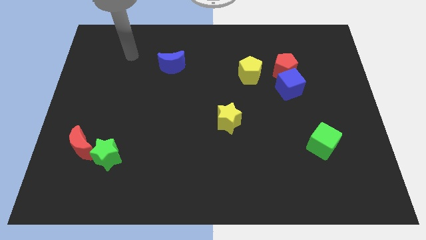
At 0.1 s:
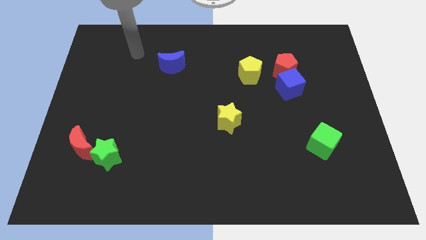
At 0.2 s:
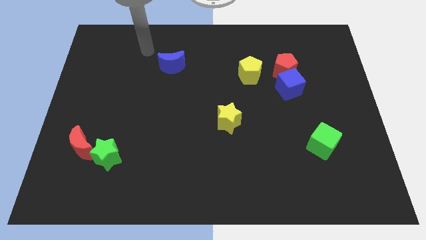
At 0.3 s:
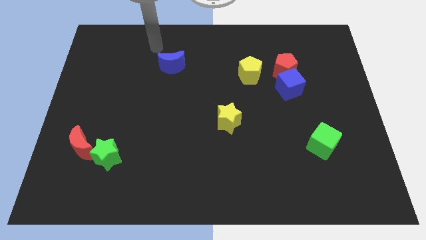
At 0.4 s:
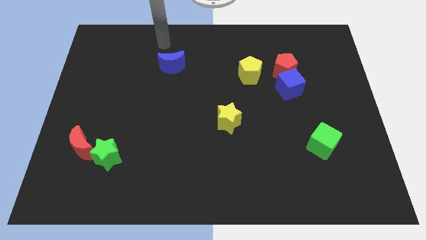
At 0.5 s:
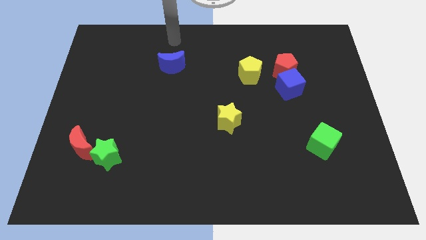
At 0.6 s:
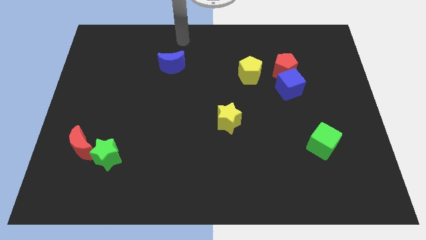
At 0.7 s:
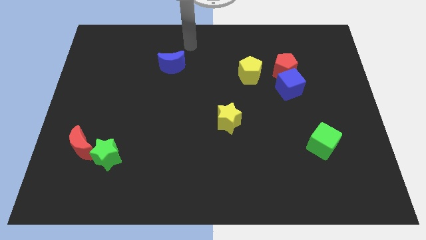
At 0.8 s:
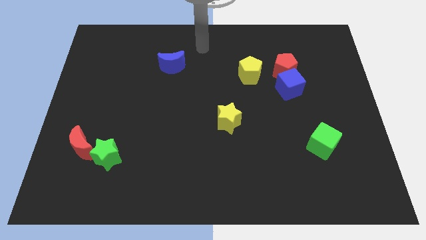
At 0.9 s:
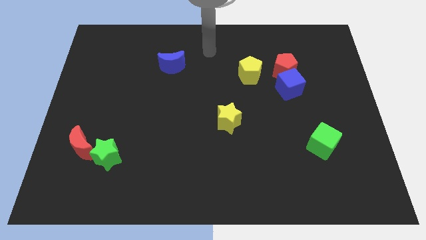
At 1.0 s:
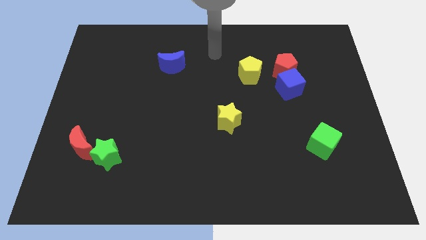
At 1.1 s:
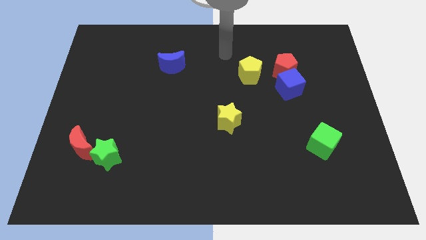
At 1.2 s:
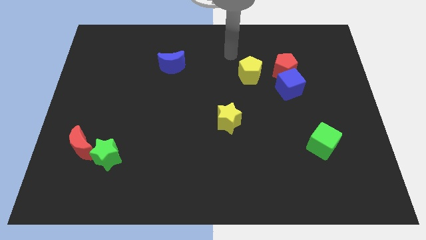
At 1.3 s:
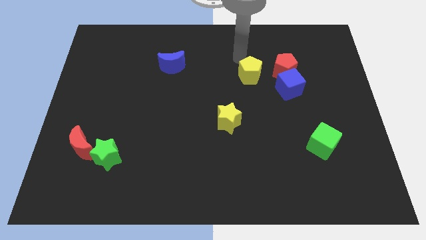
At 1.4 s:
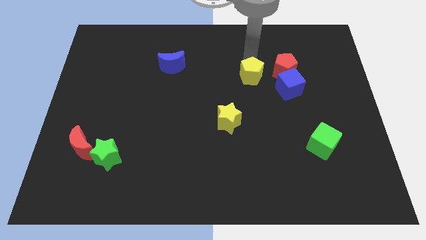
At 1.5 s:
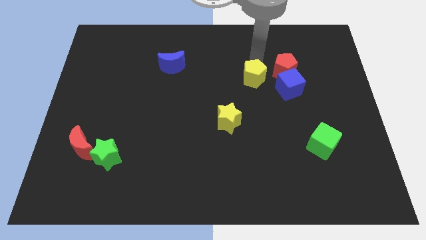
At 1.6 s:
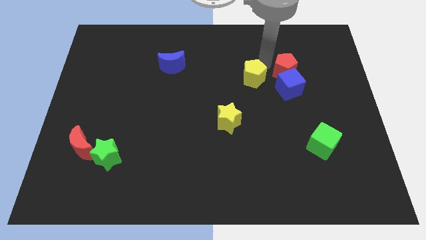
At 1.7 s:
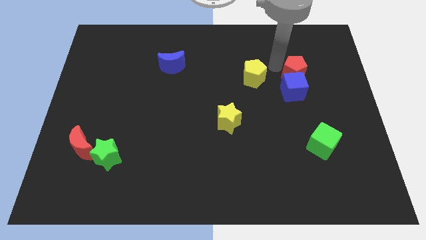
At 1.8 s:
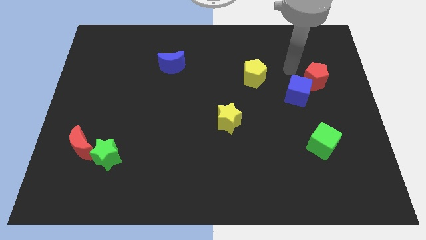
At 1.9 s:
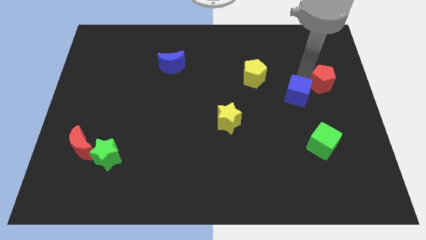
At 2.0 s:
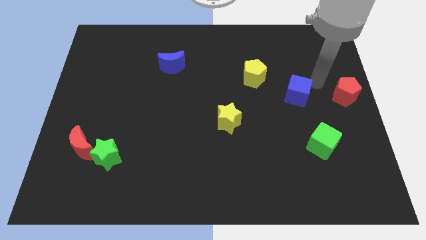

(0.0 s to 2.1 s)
separate the blue cube from the red pentagon

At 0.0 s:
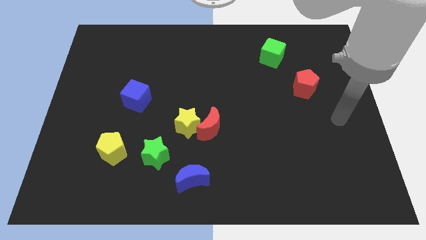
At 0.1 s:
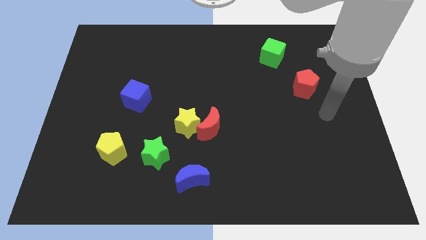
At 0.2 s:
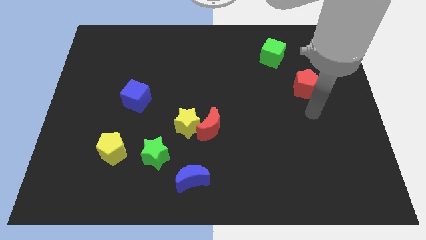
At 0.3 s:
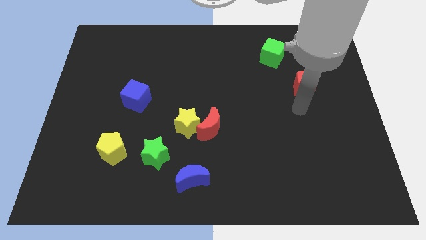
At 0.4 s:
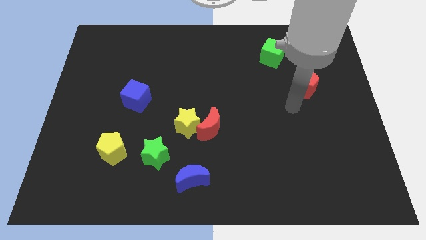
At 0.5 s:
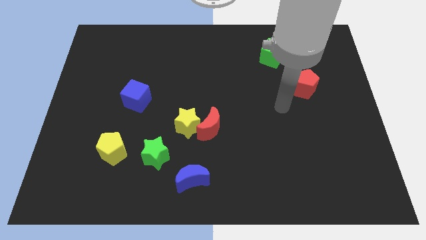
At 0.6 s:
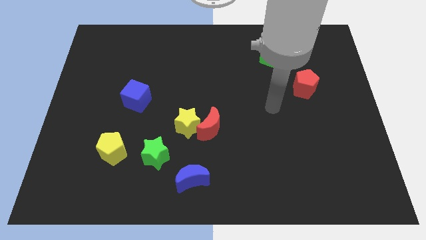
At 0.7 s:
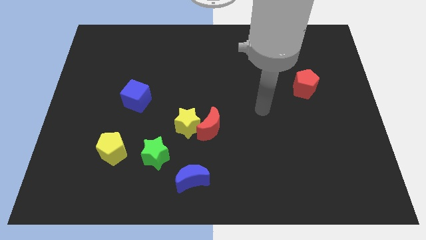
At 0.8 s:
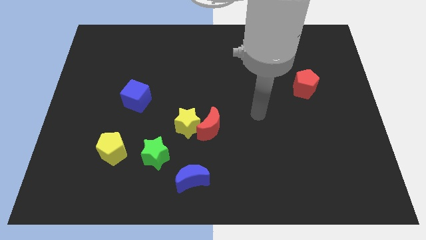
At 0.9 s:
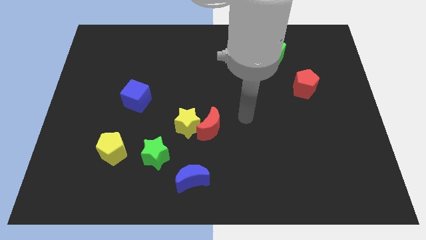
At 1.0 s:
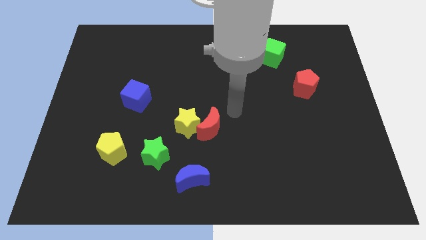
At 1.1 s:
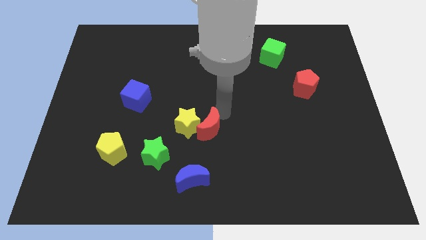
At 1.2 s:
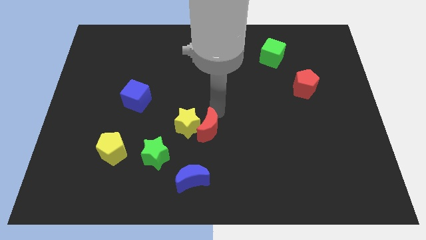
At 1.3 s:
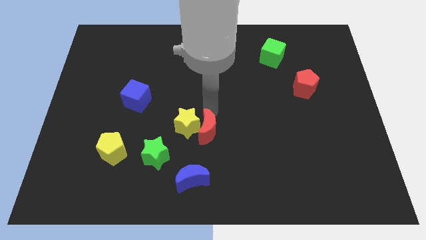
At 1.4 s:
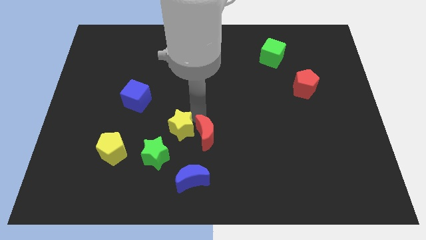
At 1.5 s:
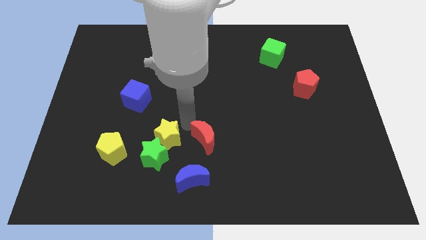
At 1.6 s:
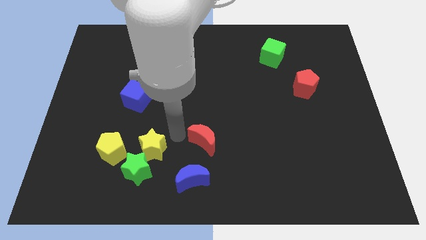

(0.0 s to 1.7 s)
separate the red moon from the yellow star

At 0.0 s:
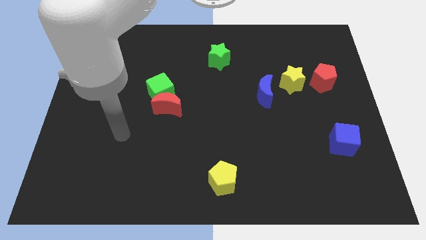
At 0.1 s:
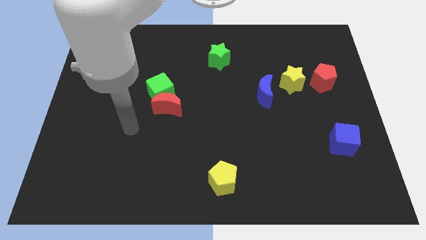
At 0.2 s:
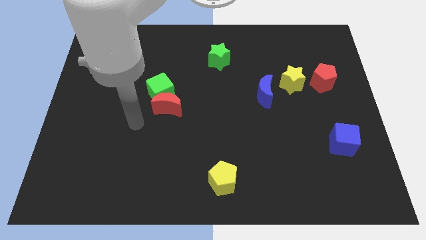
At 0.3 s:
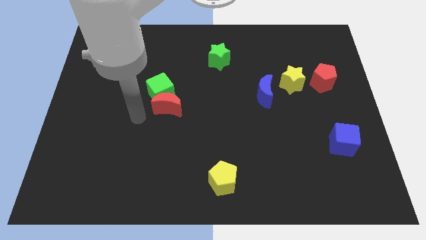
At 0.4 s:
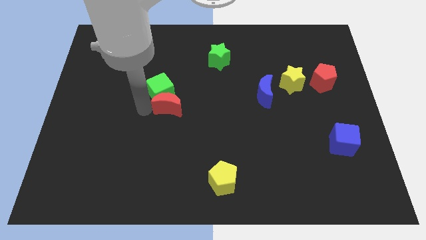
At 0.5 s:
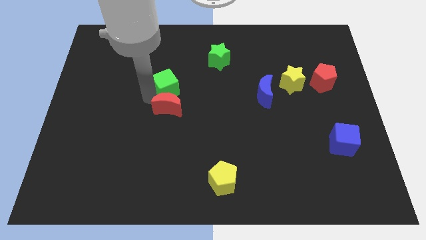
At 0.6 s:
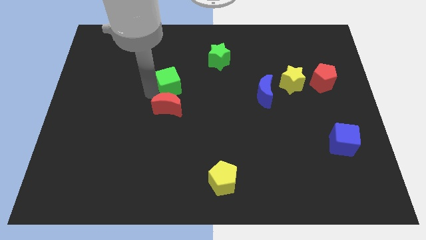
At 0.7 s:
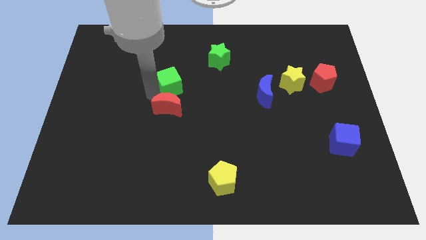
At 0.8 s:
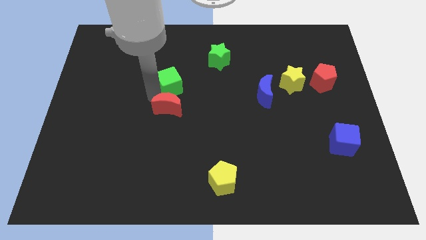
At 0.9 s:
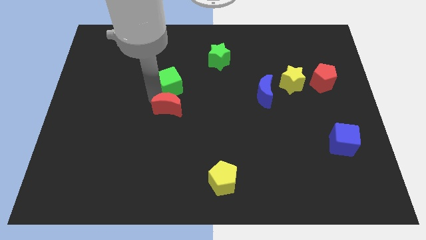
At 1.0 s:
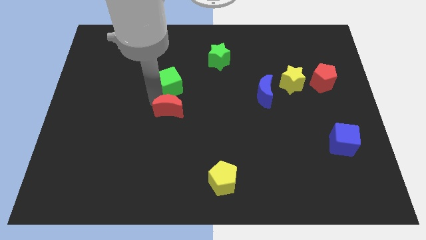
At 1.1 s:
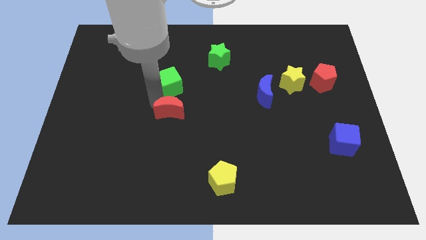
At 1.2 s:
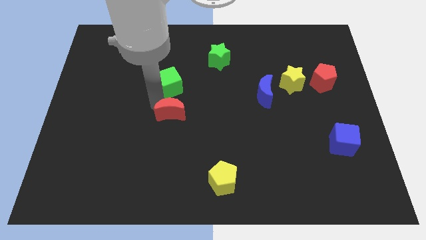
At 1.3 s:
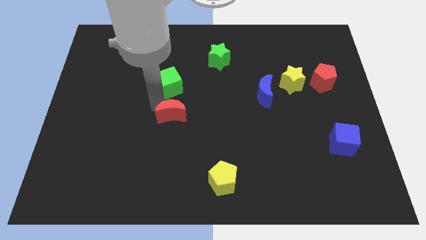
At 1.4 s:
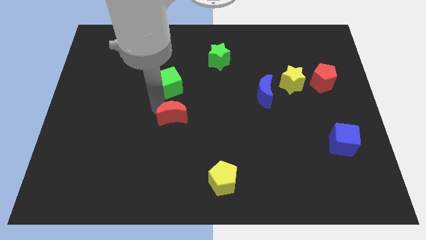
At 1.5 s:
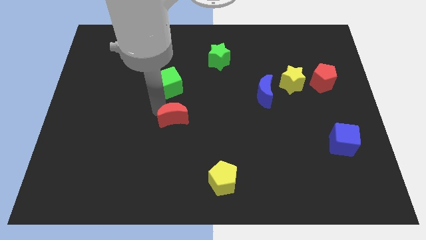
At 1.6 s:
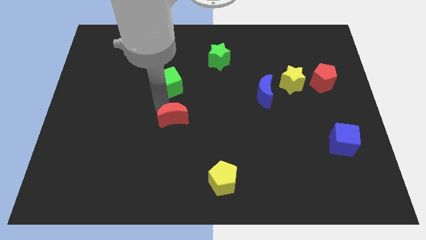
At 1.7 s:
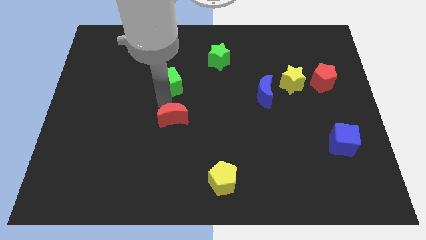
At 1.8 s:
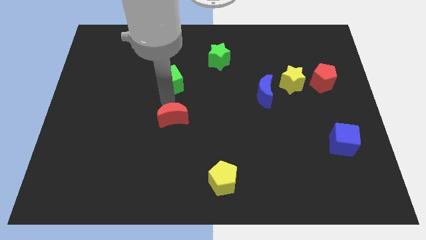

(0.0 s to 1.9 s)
separate the red moon from the green cube

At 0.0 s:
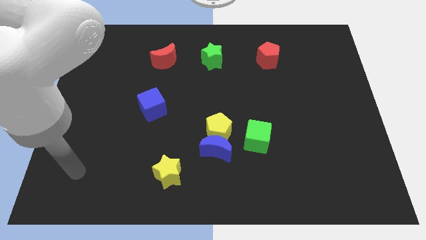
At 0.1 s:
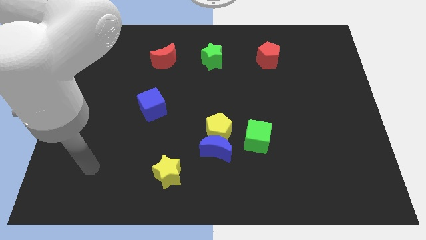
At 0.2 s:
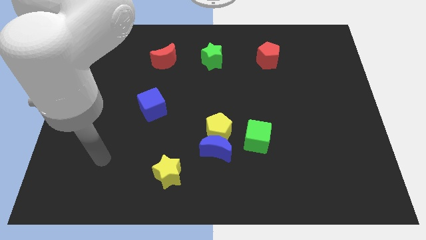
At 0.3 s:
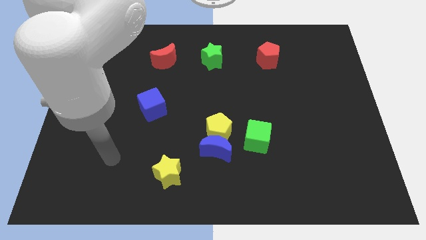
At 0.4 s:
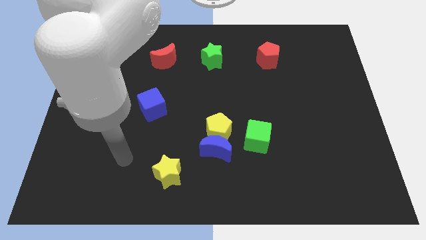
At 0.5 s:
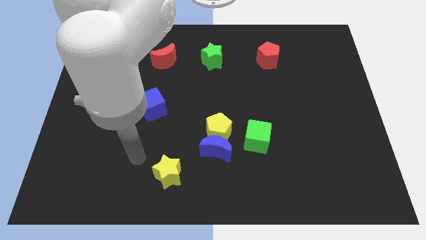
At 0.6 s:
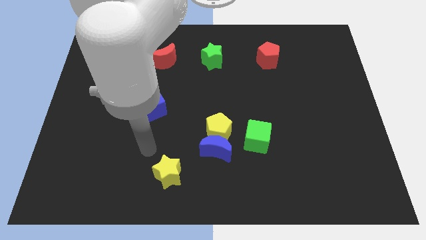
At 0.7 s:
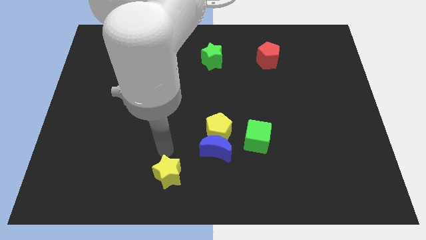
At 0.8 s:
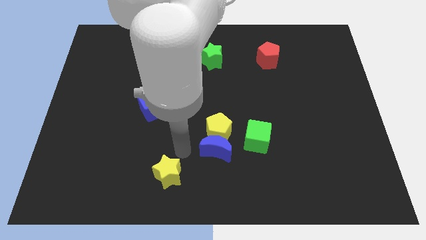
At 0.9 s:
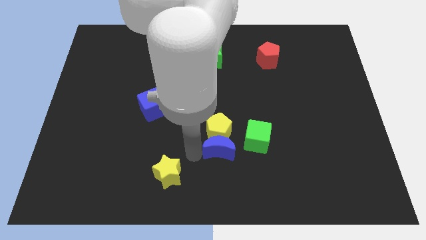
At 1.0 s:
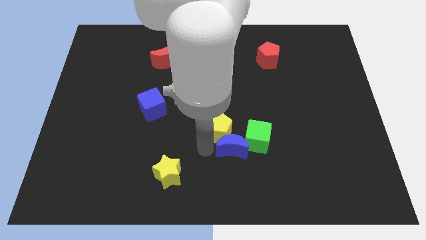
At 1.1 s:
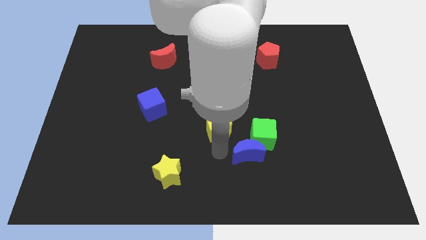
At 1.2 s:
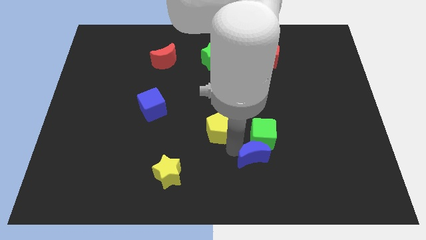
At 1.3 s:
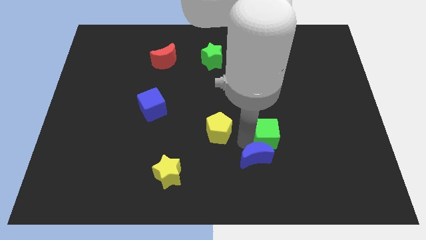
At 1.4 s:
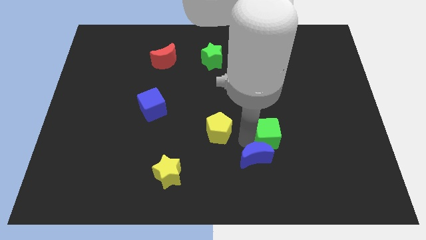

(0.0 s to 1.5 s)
move the yellow pentagon away from the blue moon and green cube

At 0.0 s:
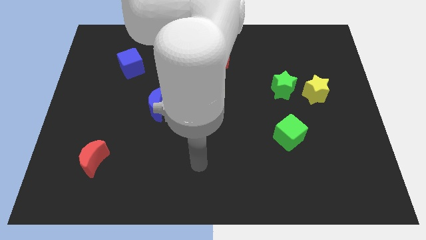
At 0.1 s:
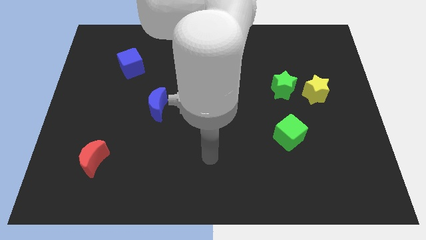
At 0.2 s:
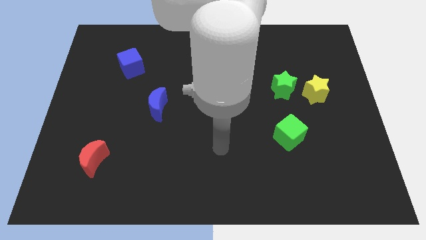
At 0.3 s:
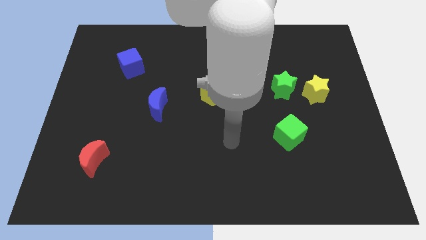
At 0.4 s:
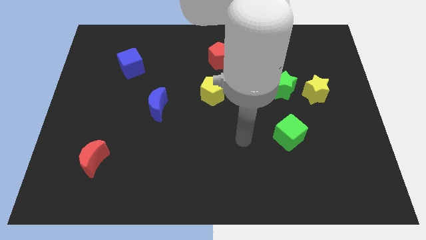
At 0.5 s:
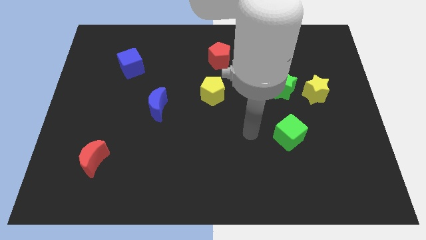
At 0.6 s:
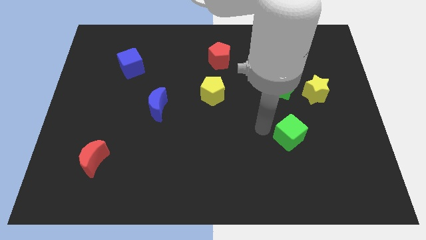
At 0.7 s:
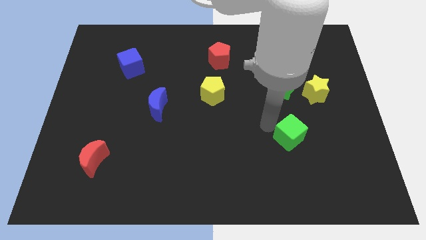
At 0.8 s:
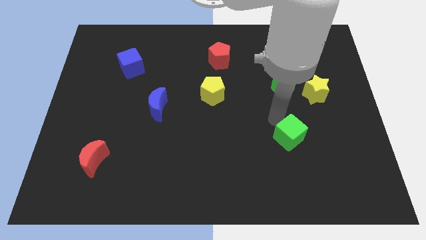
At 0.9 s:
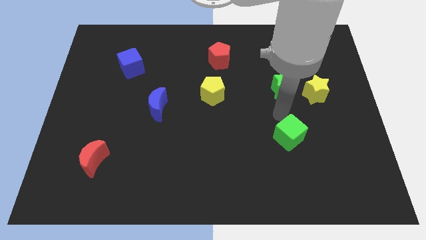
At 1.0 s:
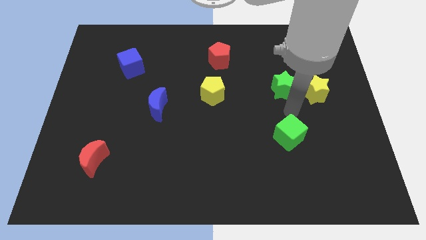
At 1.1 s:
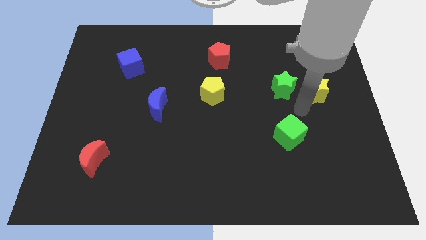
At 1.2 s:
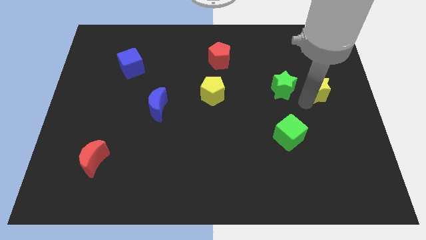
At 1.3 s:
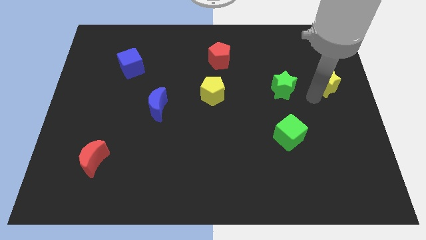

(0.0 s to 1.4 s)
move the green star away from the yellow star

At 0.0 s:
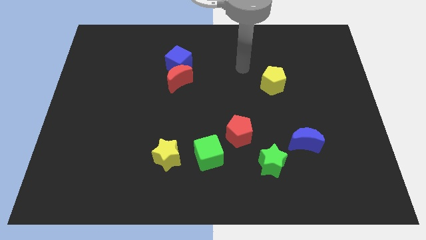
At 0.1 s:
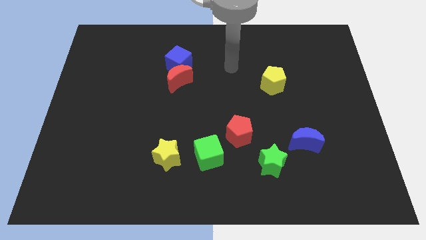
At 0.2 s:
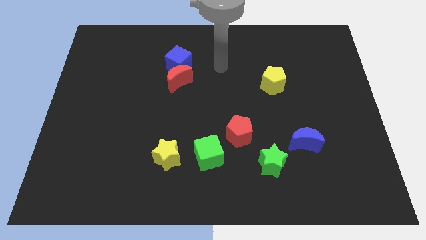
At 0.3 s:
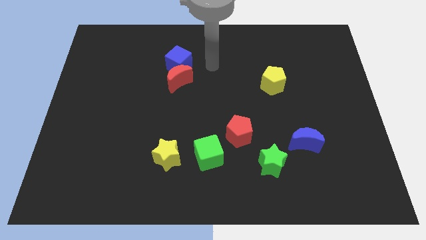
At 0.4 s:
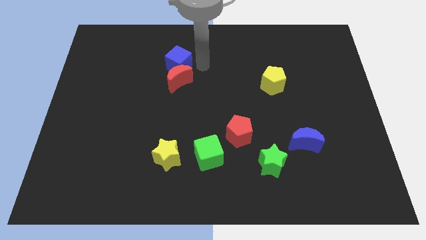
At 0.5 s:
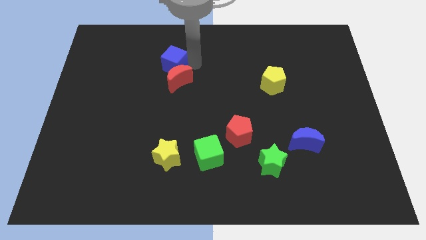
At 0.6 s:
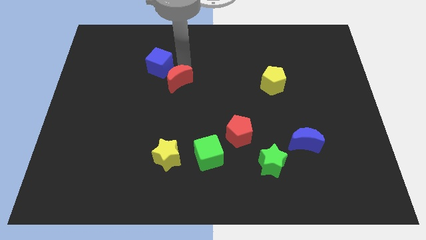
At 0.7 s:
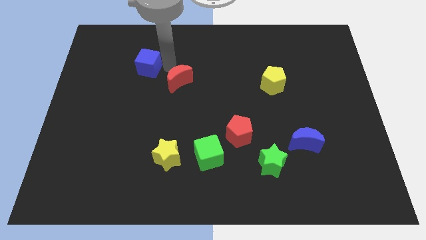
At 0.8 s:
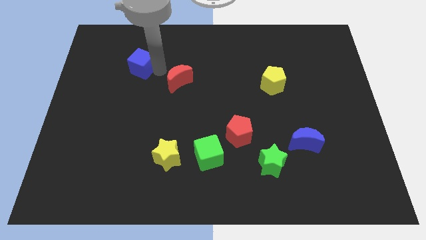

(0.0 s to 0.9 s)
move the red moon away from the blue cube
